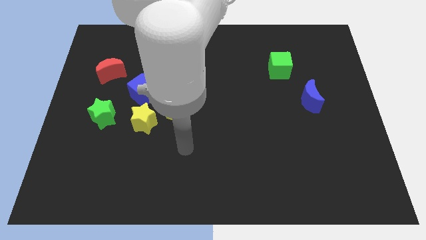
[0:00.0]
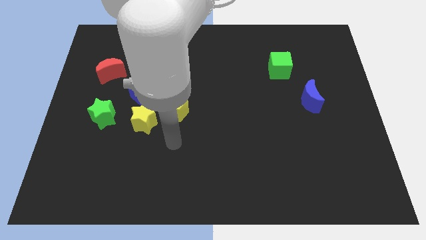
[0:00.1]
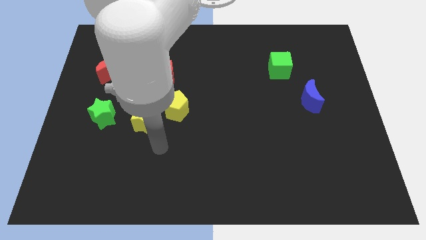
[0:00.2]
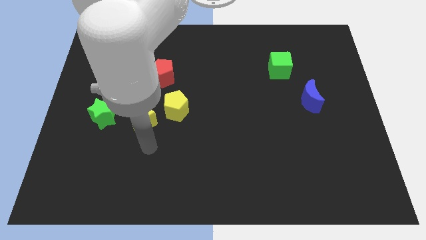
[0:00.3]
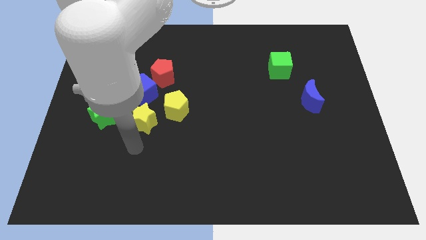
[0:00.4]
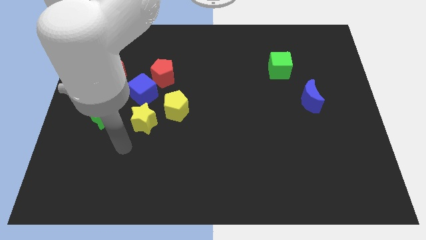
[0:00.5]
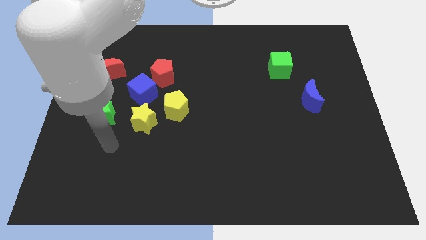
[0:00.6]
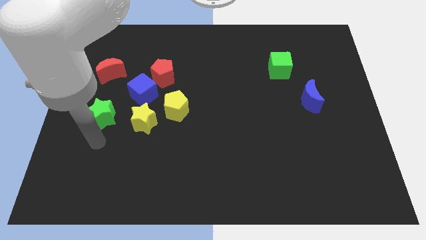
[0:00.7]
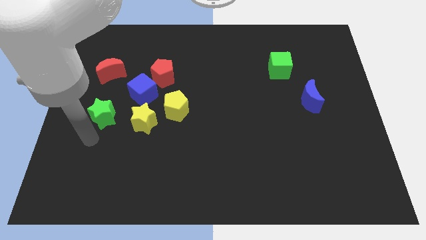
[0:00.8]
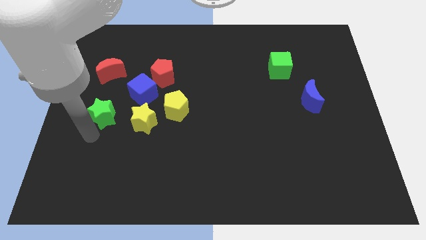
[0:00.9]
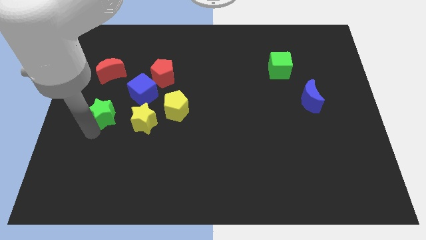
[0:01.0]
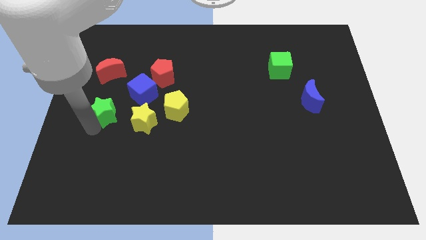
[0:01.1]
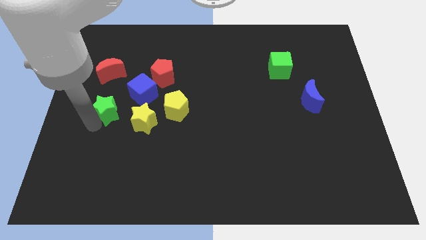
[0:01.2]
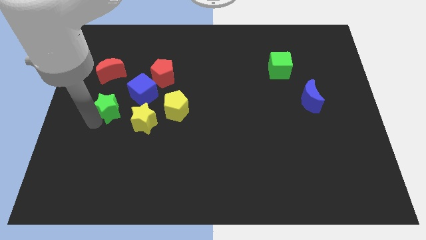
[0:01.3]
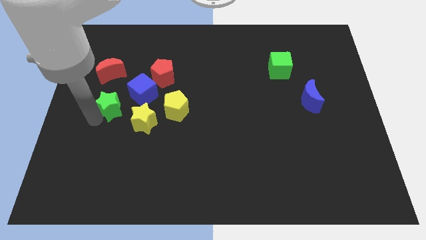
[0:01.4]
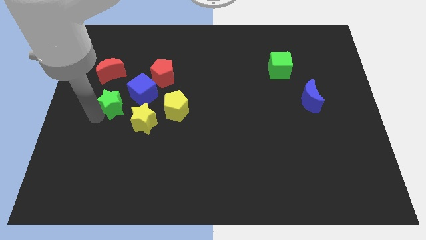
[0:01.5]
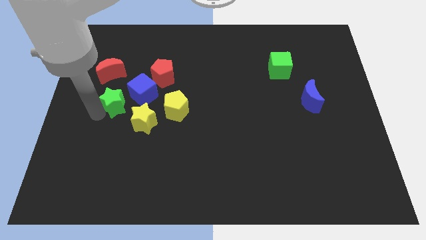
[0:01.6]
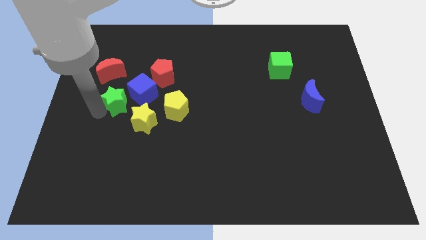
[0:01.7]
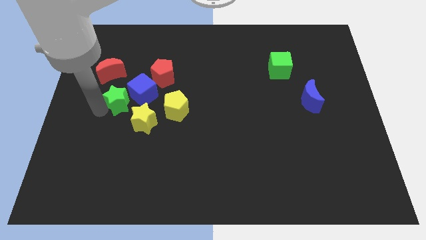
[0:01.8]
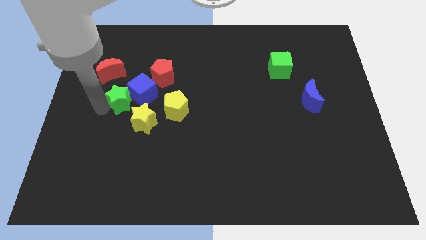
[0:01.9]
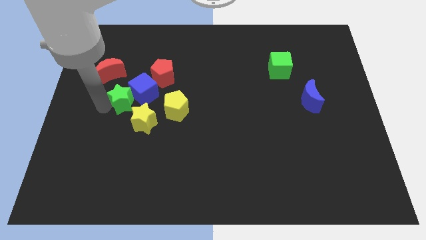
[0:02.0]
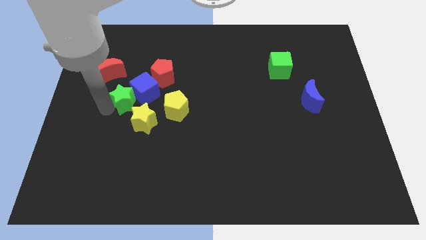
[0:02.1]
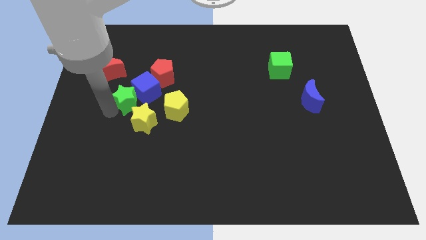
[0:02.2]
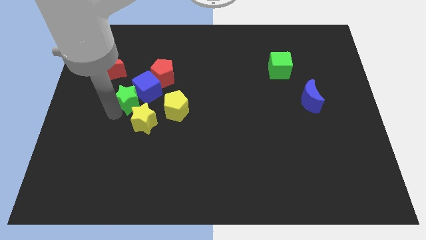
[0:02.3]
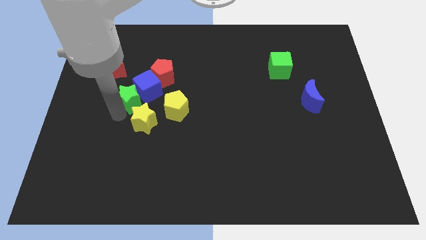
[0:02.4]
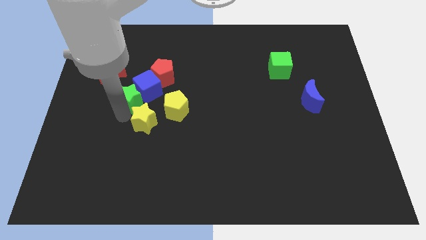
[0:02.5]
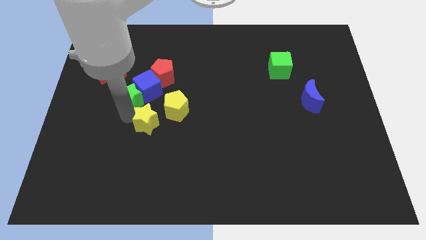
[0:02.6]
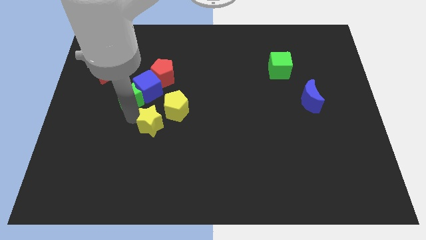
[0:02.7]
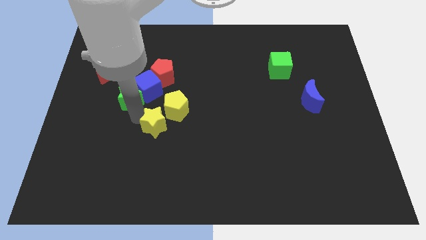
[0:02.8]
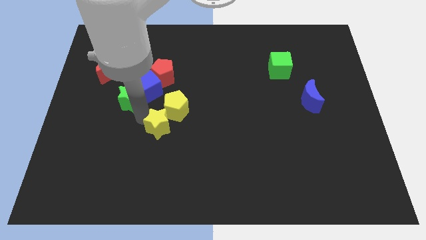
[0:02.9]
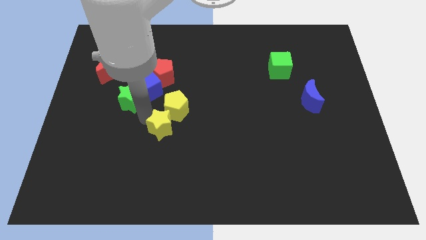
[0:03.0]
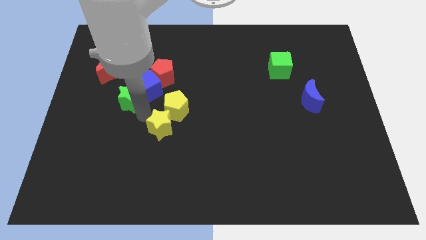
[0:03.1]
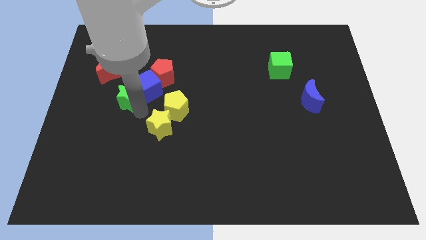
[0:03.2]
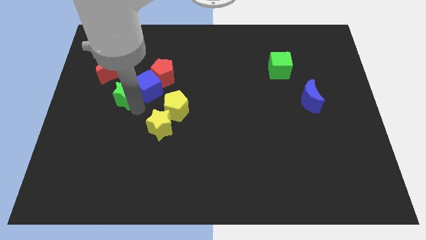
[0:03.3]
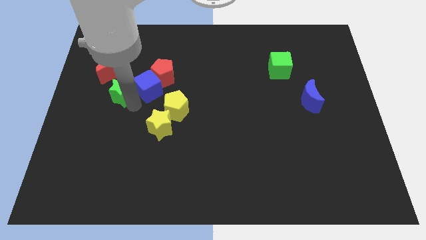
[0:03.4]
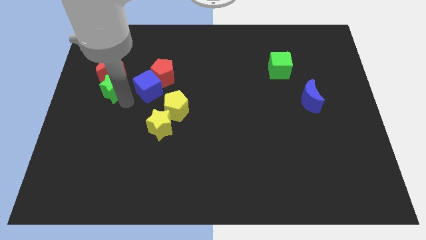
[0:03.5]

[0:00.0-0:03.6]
move the green star slightly up

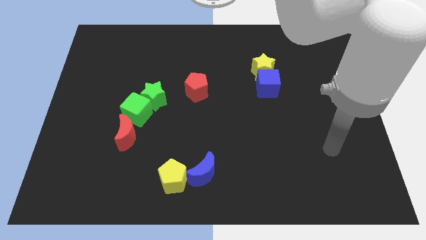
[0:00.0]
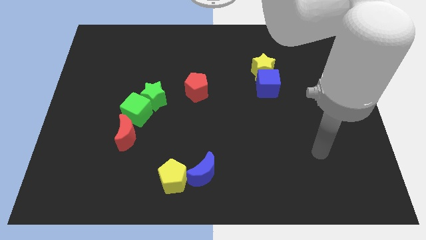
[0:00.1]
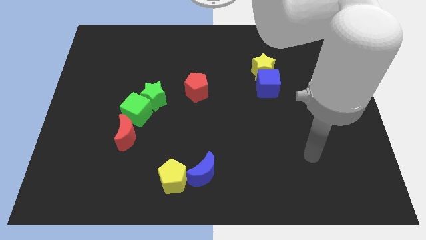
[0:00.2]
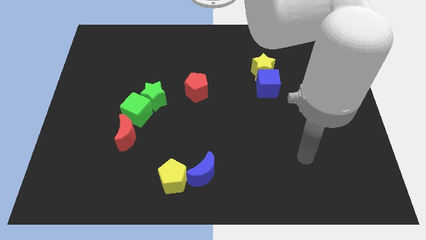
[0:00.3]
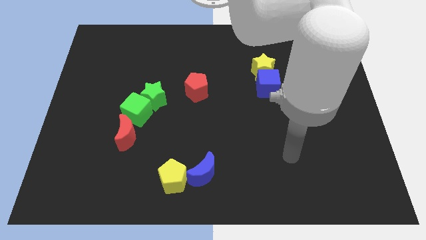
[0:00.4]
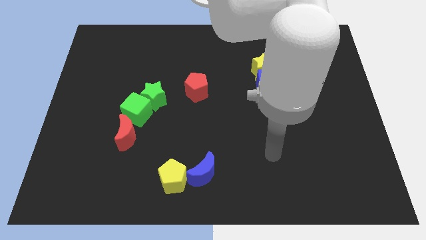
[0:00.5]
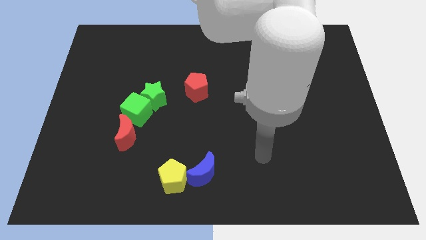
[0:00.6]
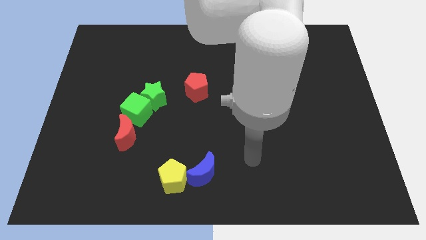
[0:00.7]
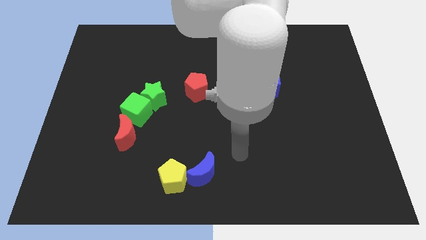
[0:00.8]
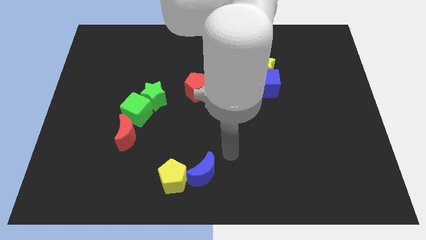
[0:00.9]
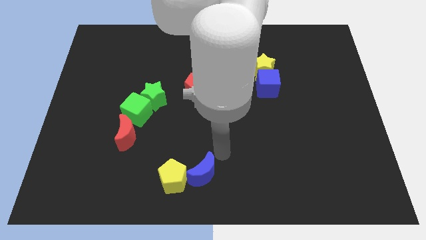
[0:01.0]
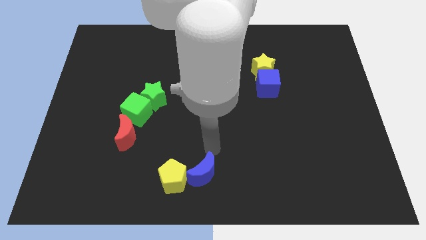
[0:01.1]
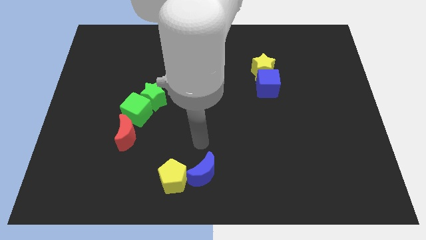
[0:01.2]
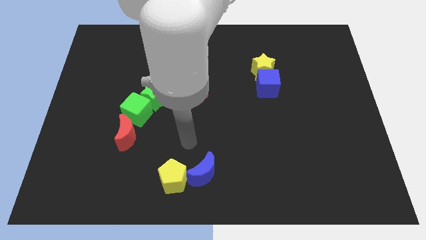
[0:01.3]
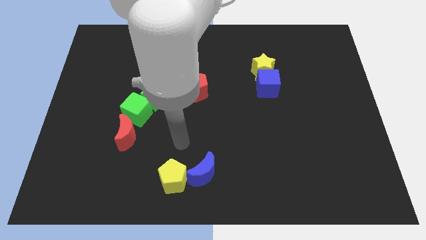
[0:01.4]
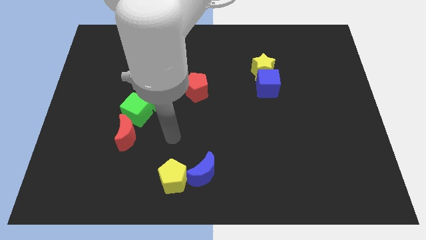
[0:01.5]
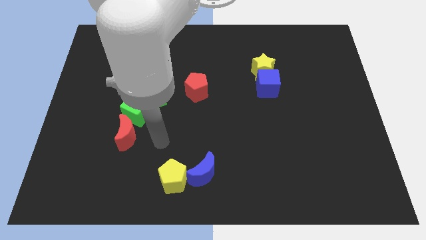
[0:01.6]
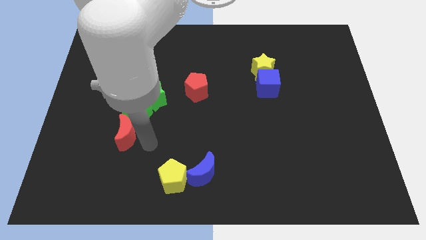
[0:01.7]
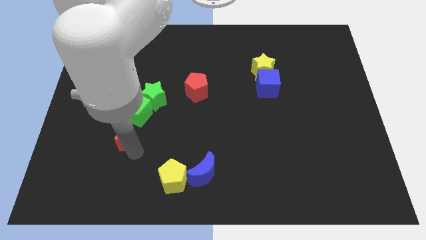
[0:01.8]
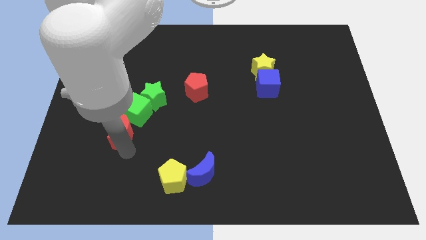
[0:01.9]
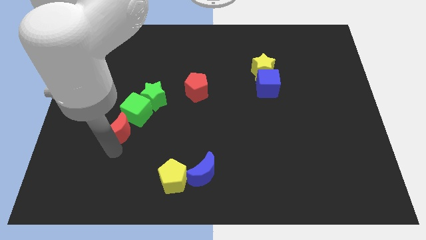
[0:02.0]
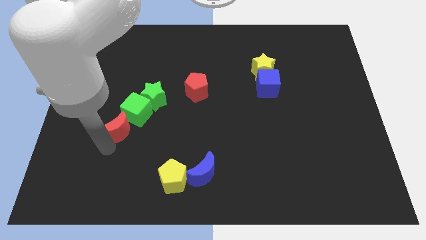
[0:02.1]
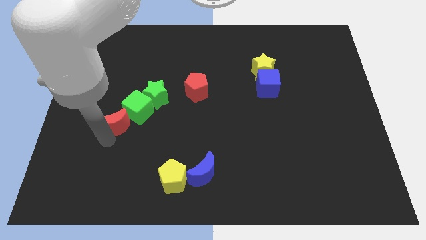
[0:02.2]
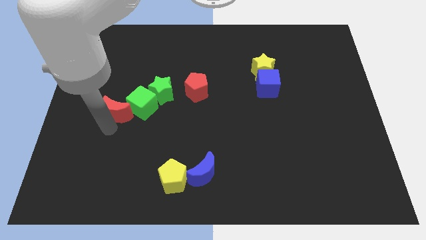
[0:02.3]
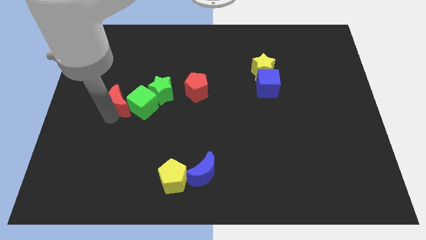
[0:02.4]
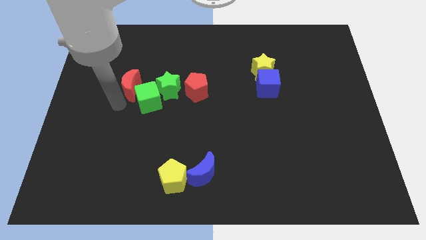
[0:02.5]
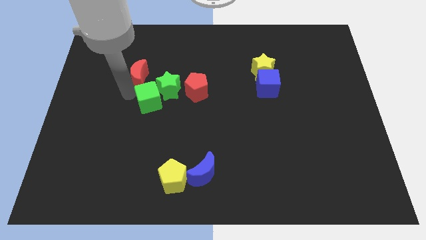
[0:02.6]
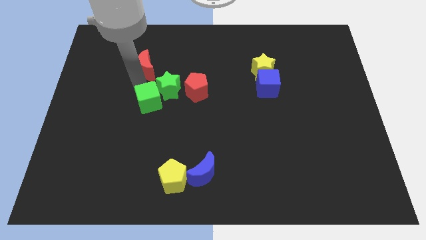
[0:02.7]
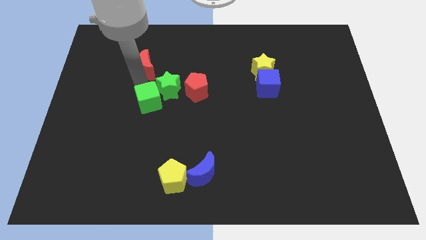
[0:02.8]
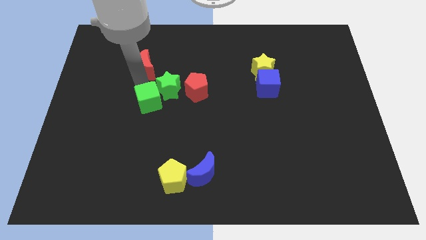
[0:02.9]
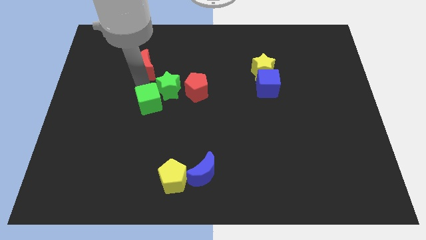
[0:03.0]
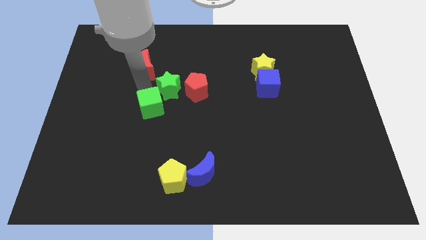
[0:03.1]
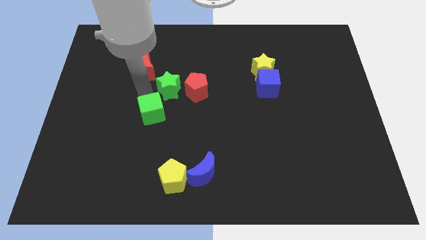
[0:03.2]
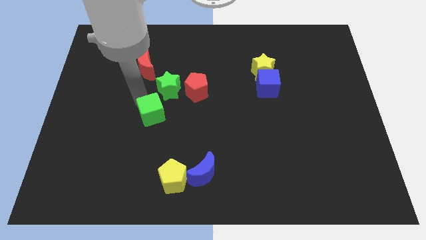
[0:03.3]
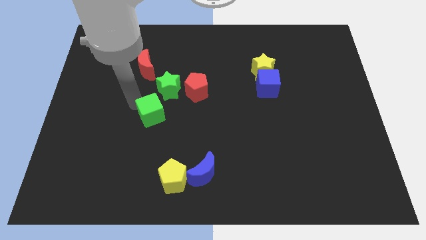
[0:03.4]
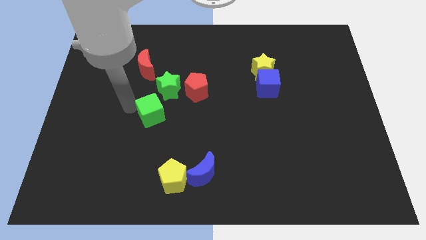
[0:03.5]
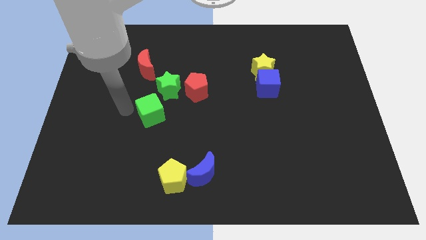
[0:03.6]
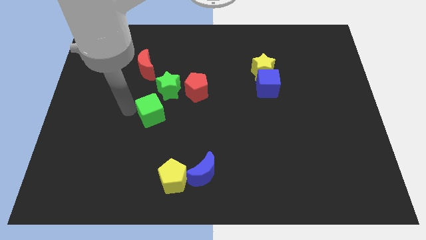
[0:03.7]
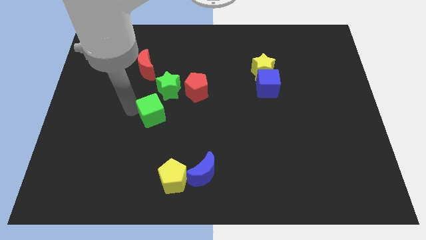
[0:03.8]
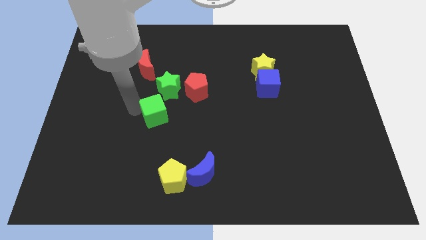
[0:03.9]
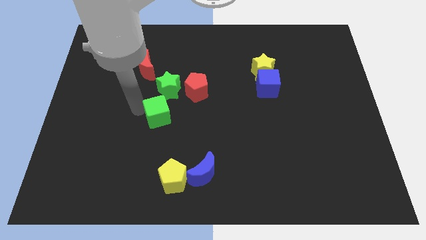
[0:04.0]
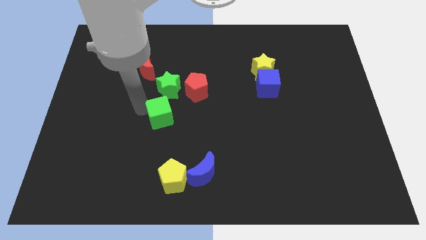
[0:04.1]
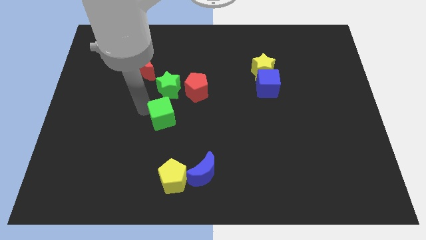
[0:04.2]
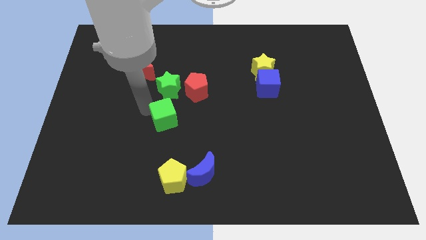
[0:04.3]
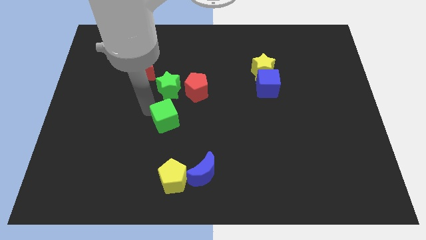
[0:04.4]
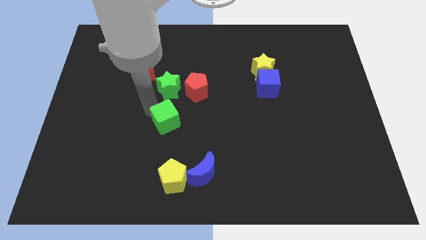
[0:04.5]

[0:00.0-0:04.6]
slightly push the green cube to the right
